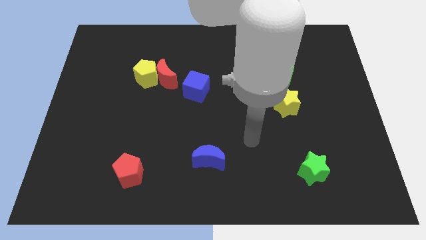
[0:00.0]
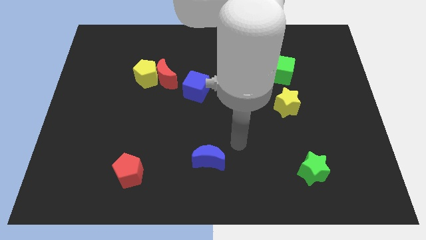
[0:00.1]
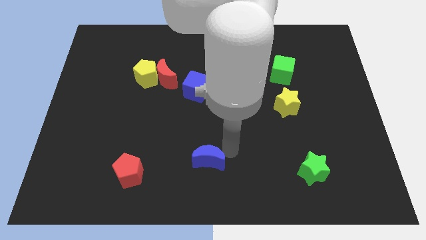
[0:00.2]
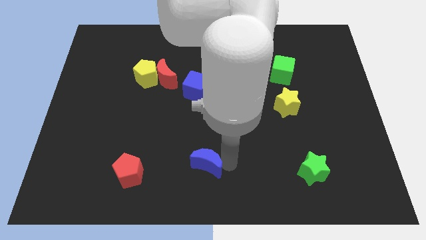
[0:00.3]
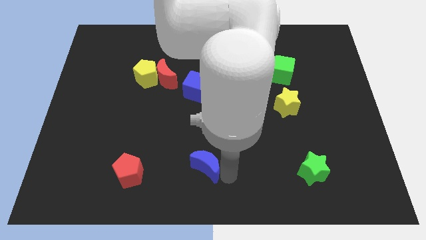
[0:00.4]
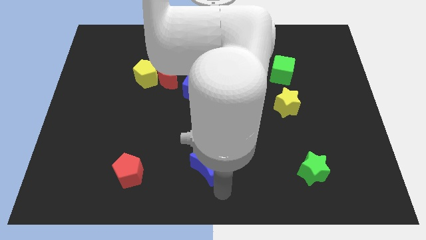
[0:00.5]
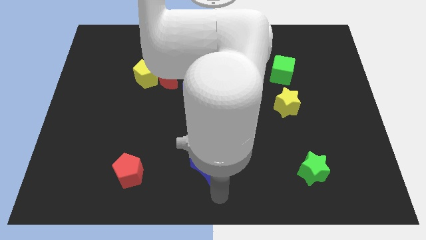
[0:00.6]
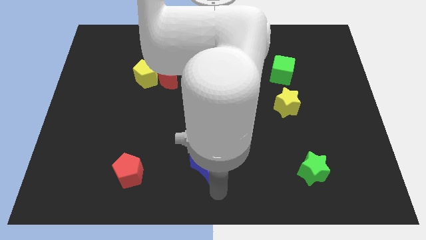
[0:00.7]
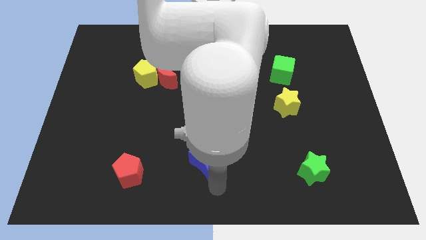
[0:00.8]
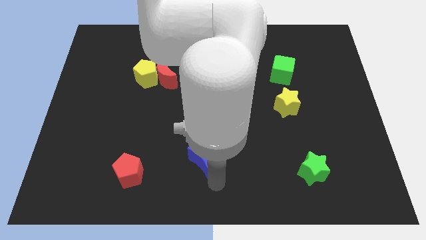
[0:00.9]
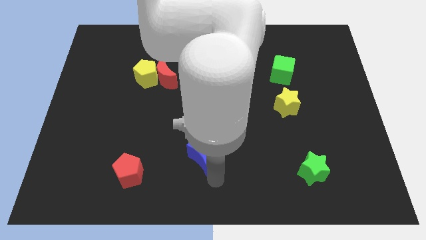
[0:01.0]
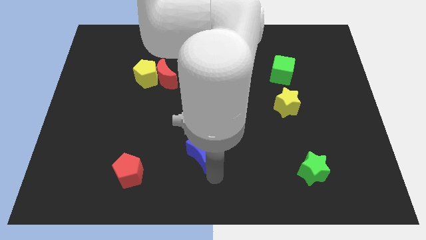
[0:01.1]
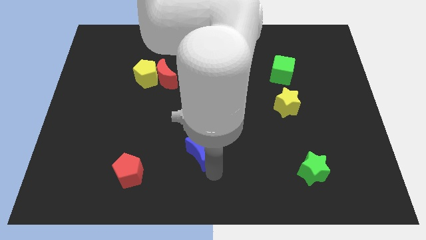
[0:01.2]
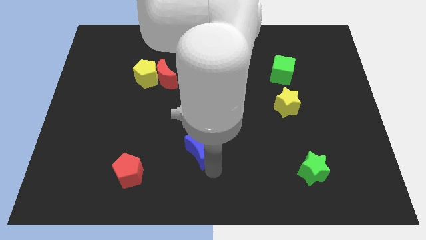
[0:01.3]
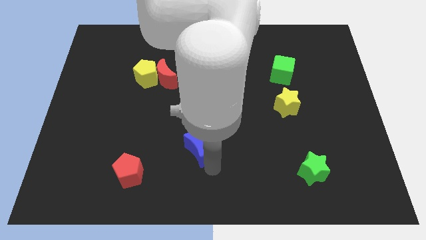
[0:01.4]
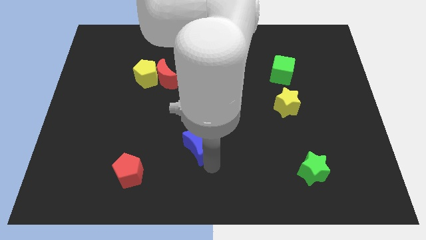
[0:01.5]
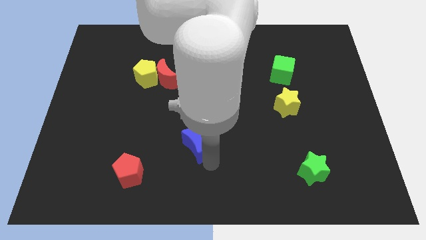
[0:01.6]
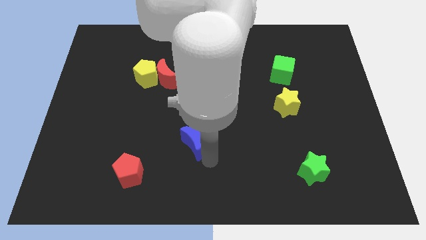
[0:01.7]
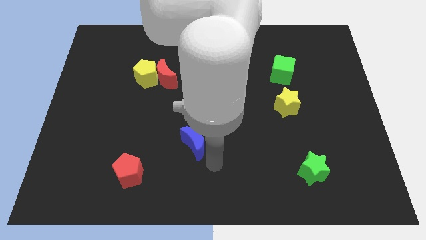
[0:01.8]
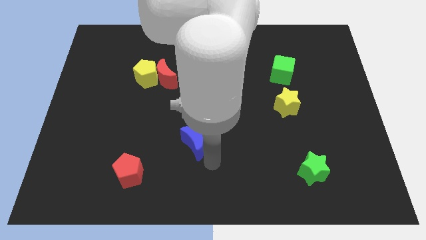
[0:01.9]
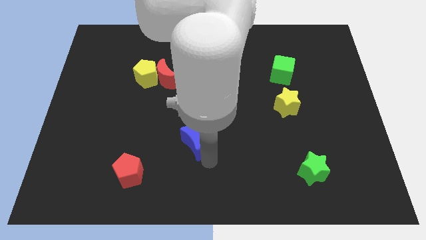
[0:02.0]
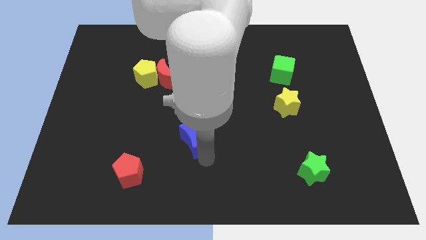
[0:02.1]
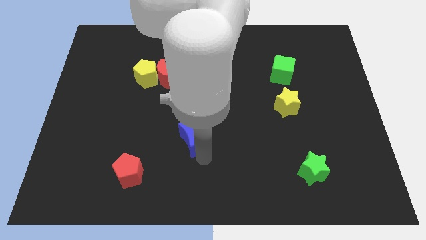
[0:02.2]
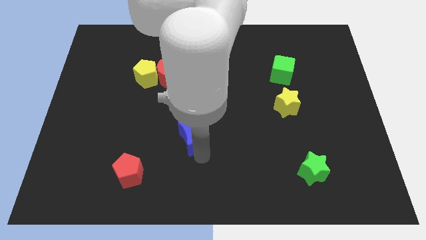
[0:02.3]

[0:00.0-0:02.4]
slightly move the blue moon up and left diagonally

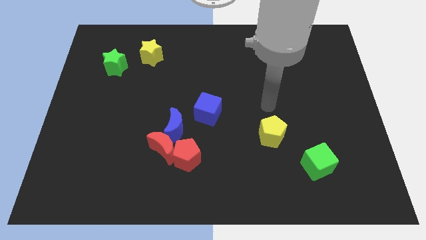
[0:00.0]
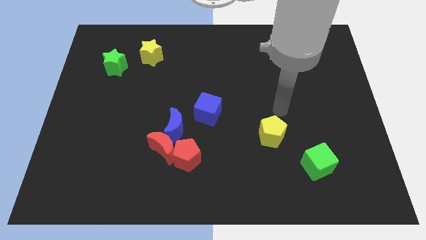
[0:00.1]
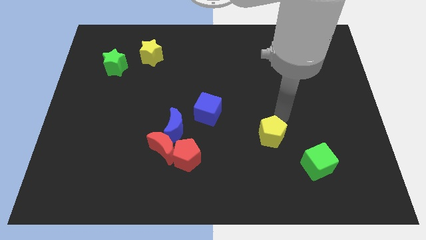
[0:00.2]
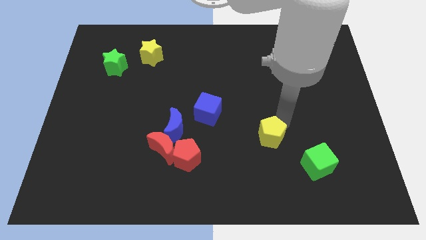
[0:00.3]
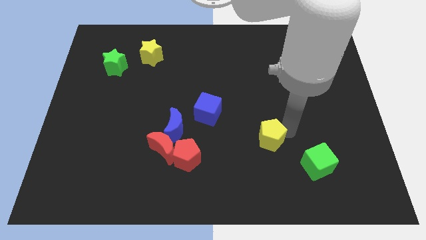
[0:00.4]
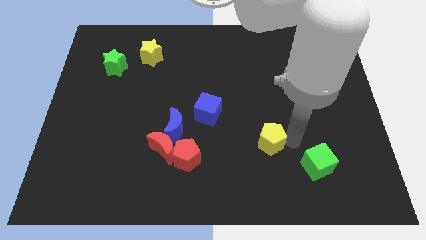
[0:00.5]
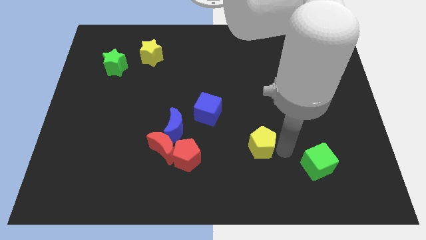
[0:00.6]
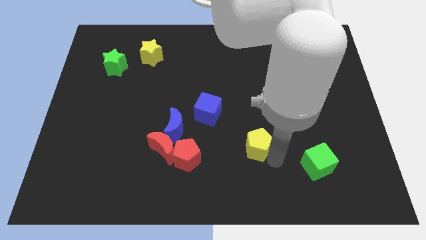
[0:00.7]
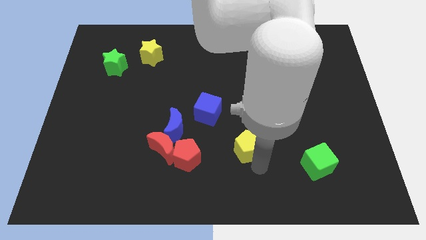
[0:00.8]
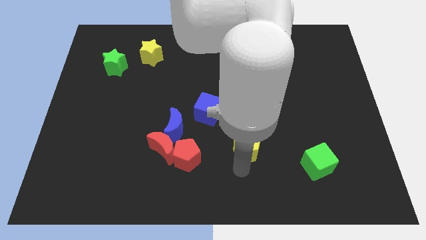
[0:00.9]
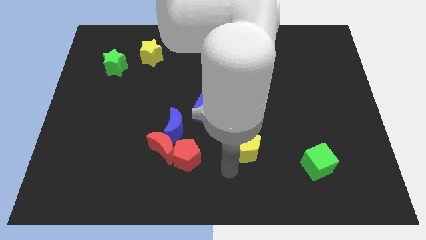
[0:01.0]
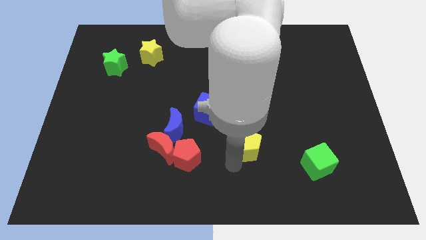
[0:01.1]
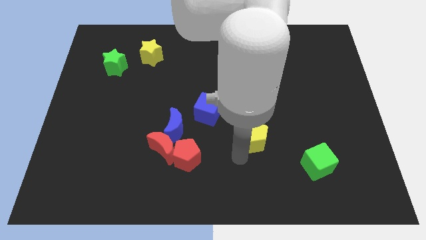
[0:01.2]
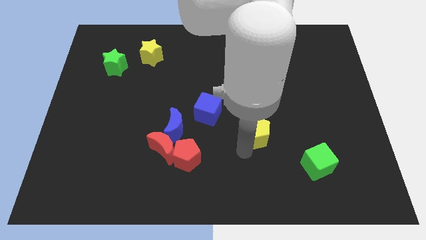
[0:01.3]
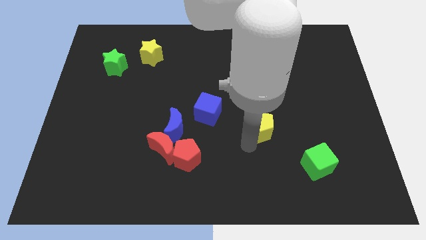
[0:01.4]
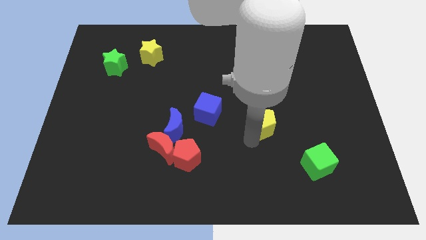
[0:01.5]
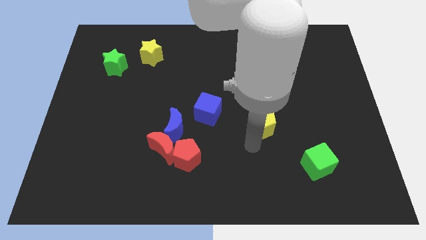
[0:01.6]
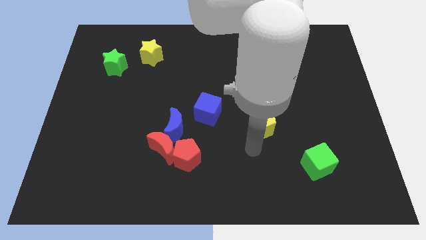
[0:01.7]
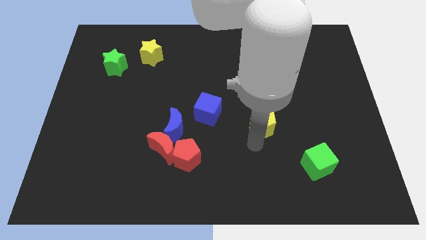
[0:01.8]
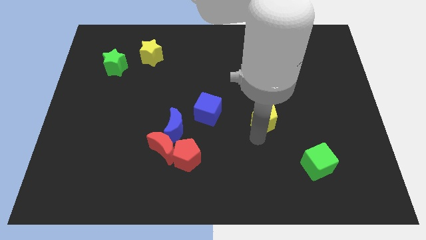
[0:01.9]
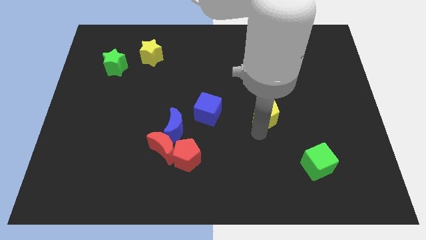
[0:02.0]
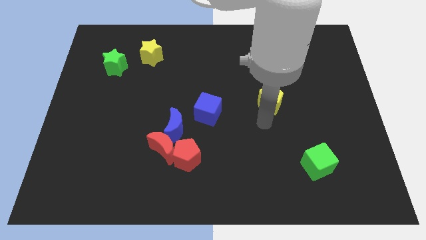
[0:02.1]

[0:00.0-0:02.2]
move the yellow pentagon upwards a little bit

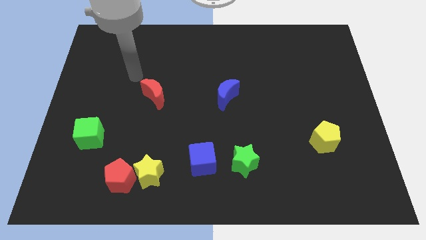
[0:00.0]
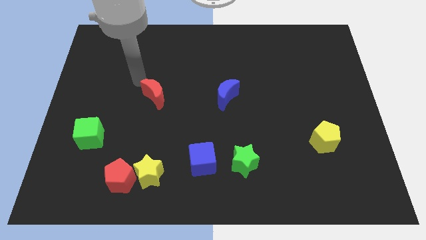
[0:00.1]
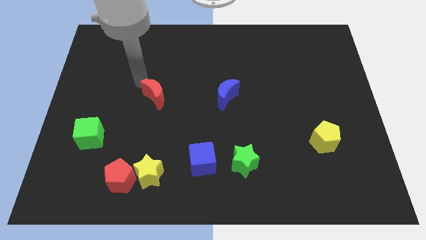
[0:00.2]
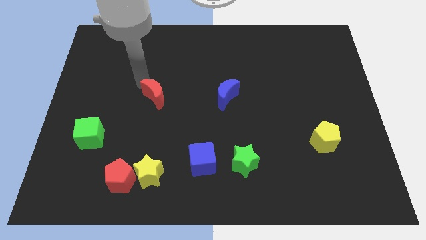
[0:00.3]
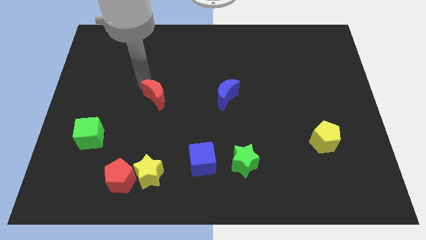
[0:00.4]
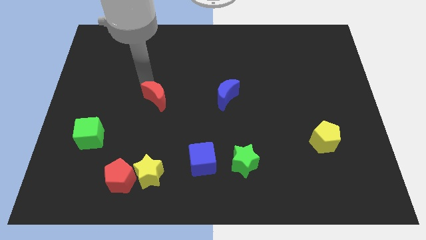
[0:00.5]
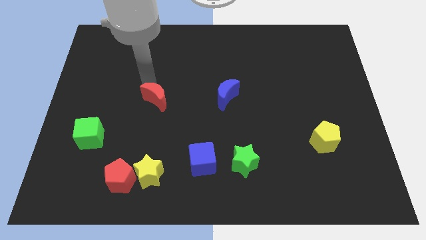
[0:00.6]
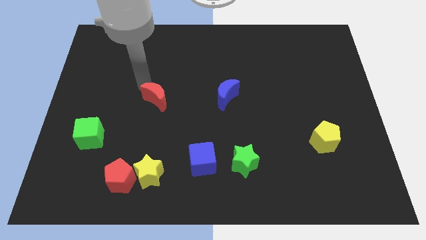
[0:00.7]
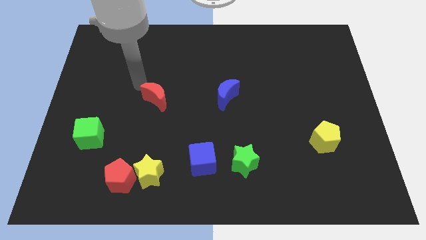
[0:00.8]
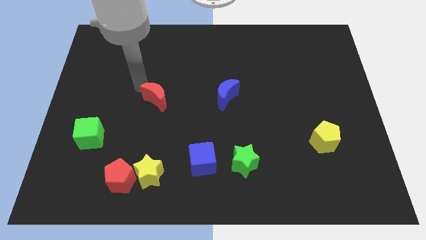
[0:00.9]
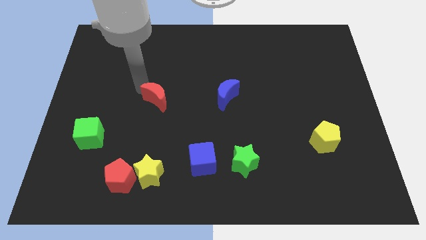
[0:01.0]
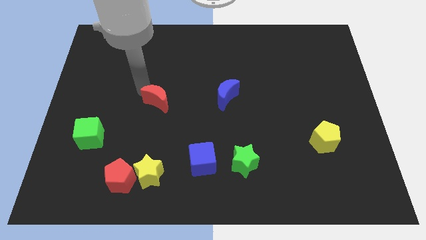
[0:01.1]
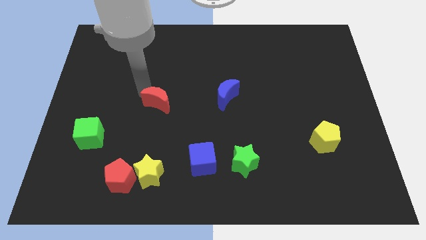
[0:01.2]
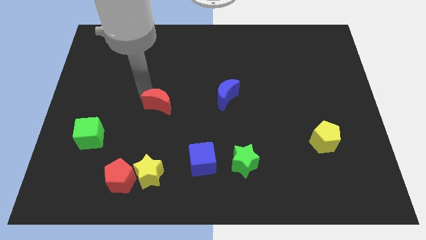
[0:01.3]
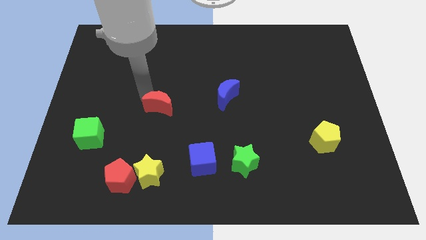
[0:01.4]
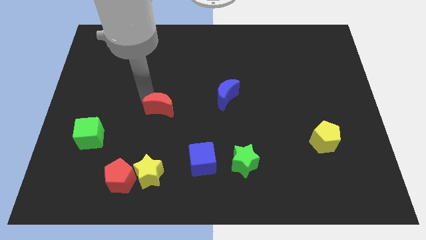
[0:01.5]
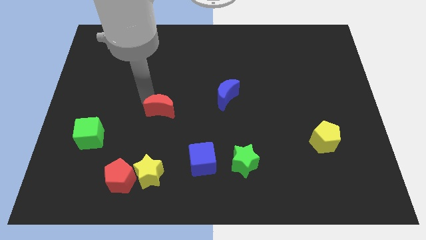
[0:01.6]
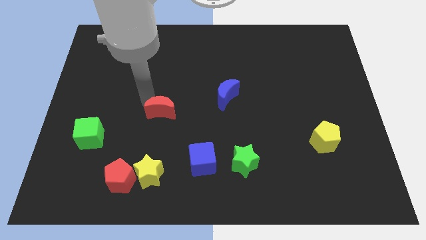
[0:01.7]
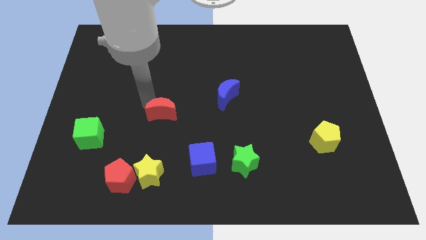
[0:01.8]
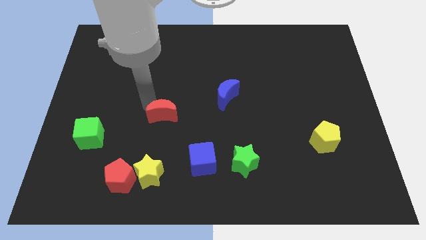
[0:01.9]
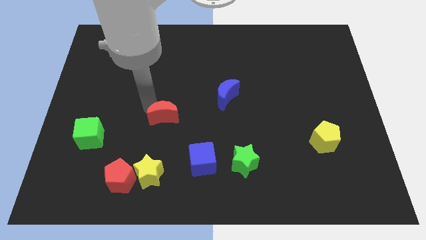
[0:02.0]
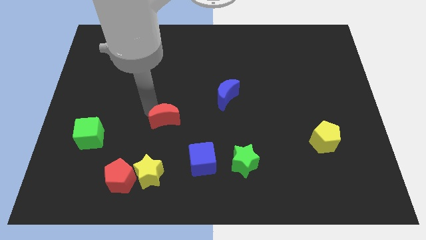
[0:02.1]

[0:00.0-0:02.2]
move the red moon downwards and then to the right slightly

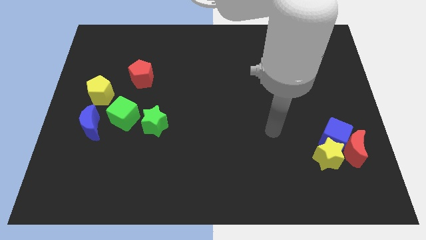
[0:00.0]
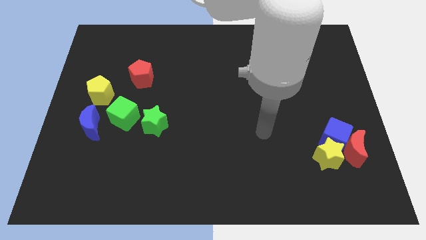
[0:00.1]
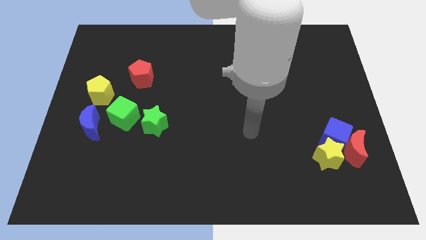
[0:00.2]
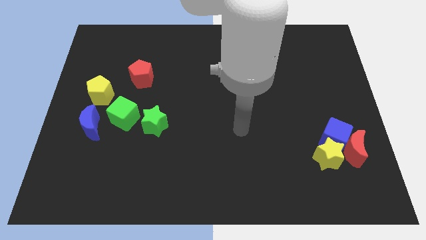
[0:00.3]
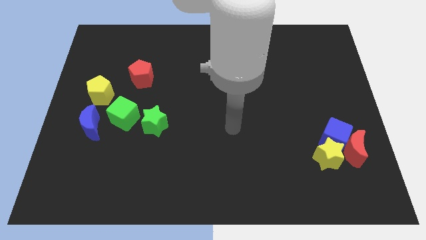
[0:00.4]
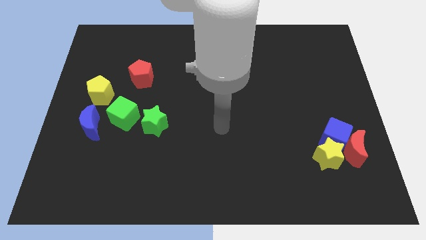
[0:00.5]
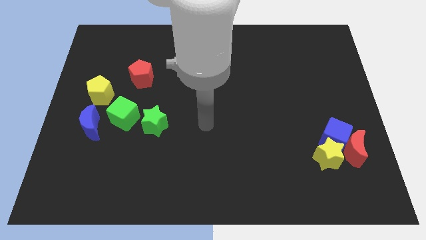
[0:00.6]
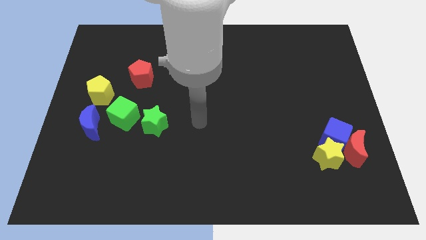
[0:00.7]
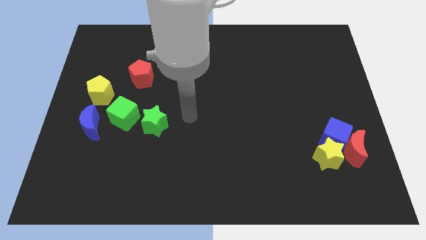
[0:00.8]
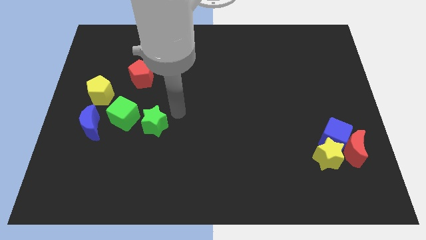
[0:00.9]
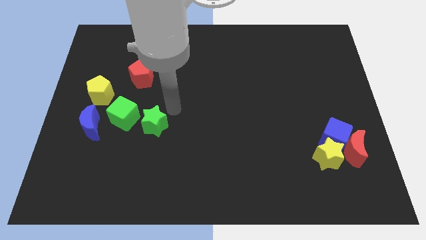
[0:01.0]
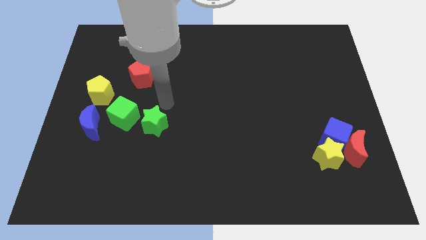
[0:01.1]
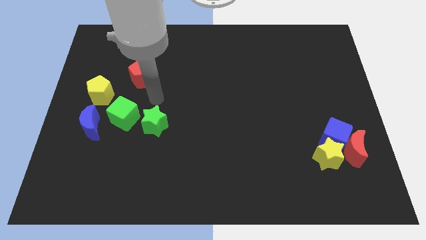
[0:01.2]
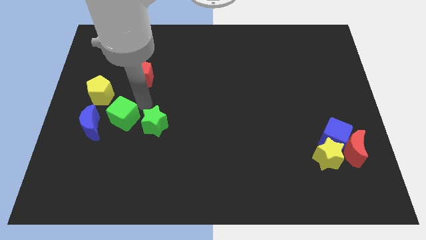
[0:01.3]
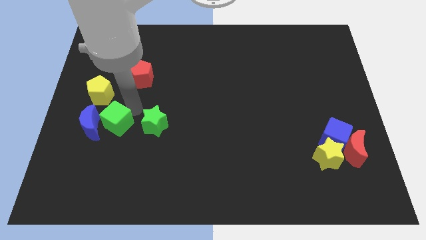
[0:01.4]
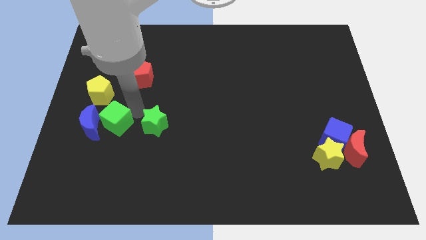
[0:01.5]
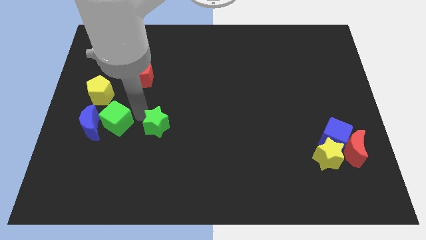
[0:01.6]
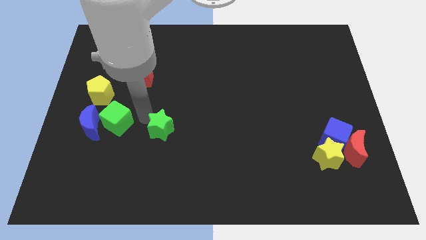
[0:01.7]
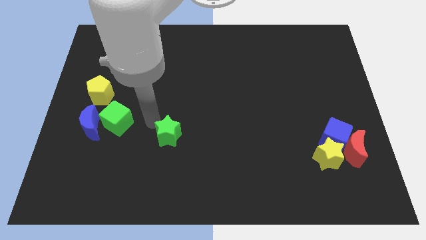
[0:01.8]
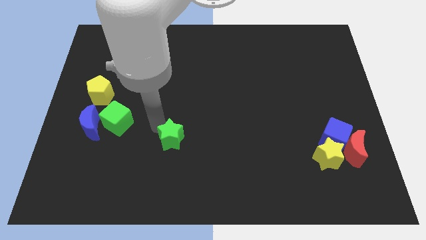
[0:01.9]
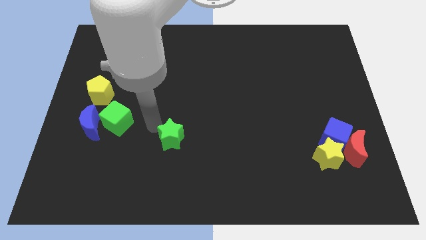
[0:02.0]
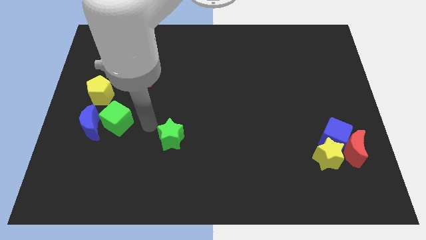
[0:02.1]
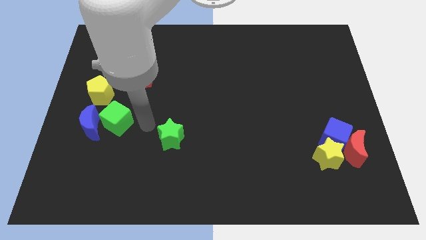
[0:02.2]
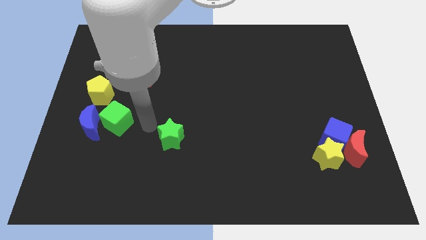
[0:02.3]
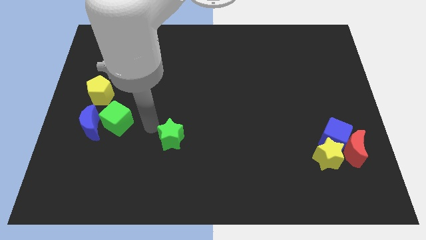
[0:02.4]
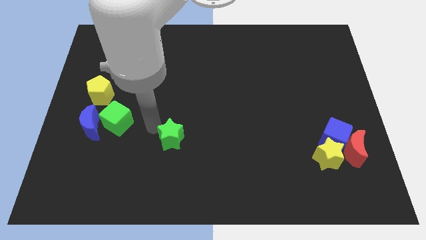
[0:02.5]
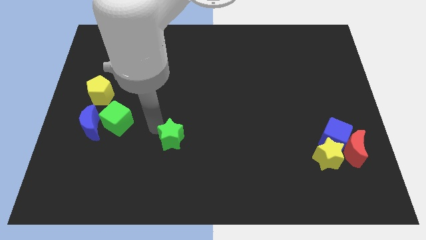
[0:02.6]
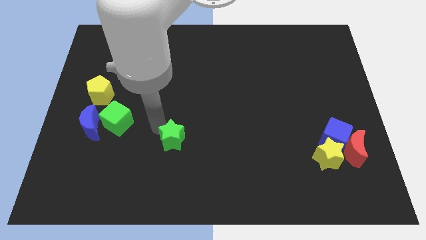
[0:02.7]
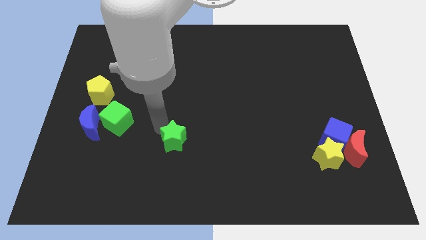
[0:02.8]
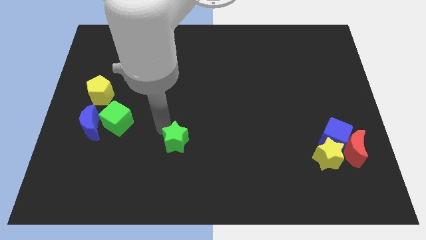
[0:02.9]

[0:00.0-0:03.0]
slightly slide the green star down and right
